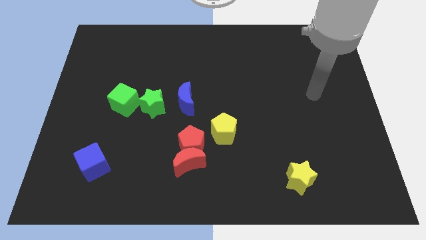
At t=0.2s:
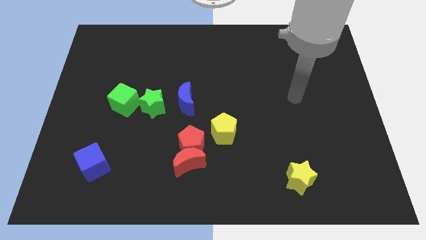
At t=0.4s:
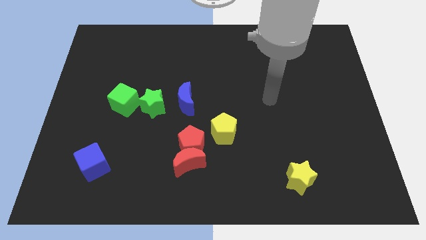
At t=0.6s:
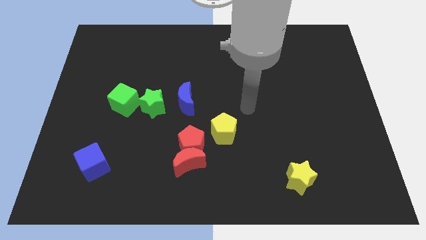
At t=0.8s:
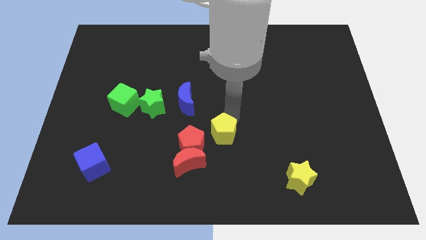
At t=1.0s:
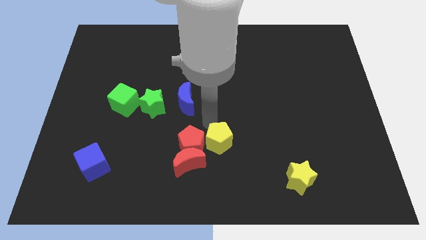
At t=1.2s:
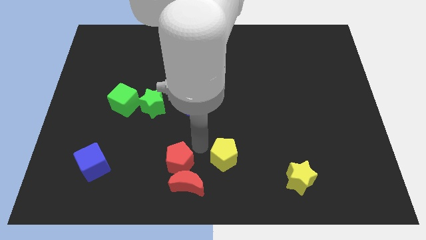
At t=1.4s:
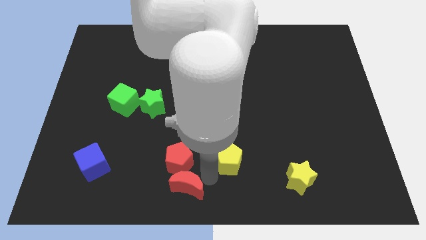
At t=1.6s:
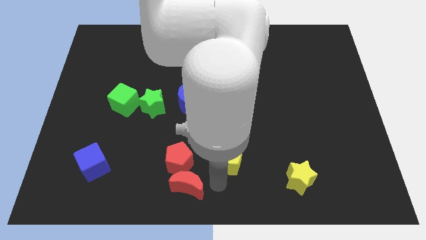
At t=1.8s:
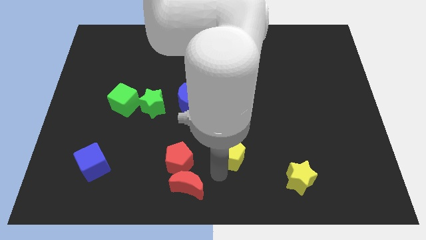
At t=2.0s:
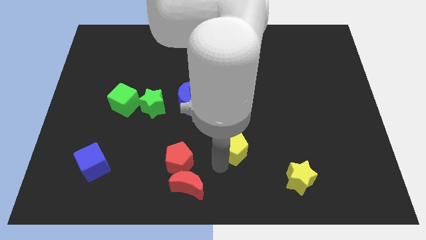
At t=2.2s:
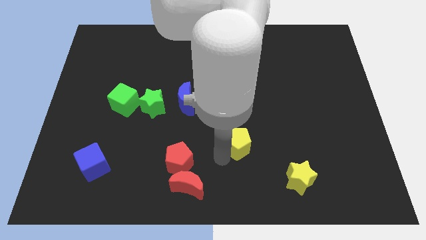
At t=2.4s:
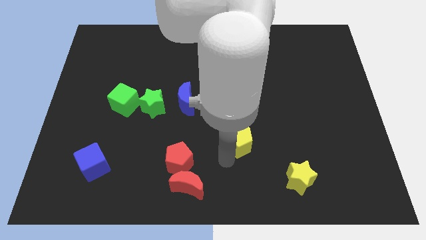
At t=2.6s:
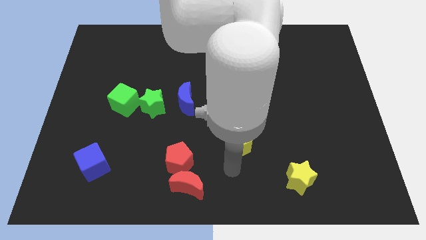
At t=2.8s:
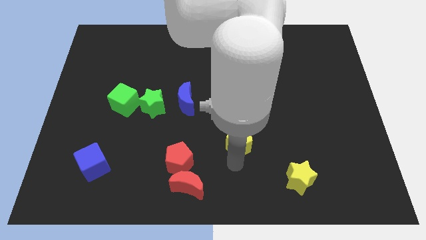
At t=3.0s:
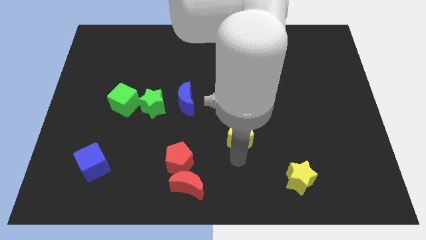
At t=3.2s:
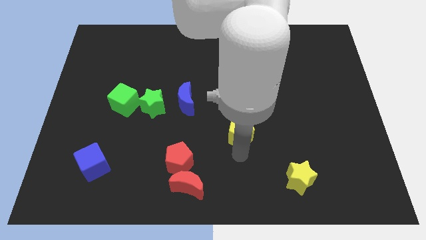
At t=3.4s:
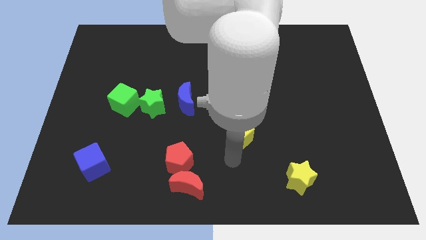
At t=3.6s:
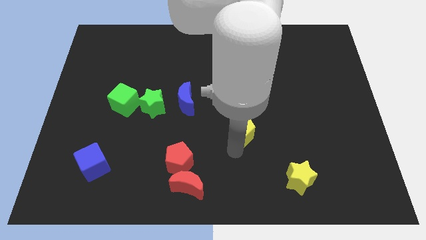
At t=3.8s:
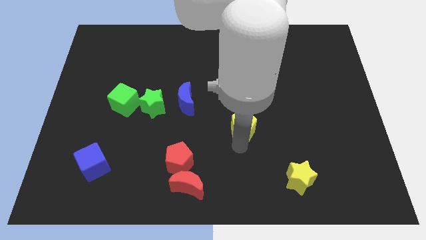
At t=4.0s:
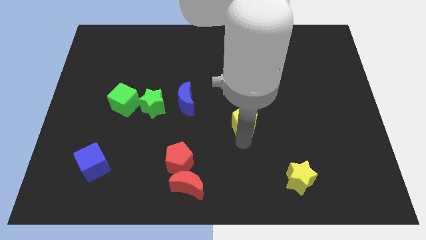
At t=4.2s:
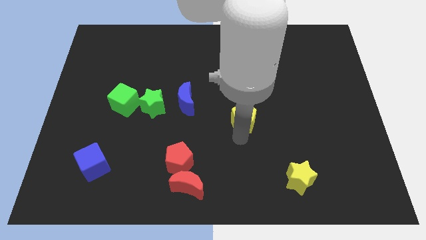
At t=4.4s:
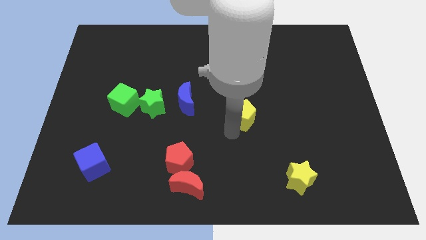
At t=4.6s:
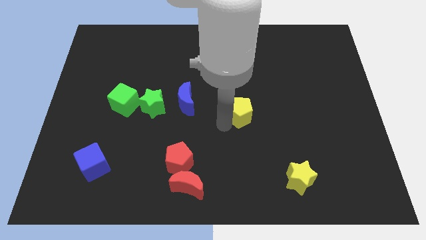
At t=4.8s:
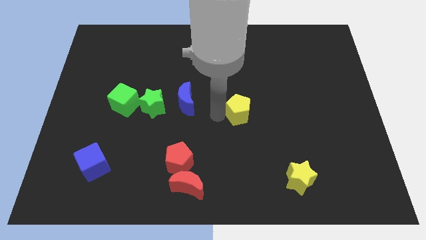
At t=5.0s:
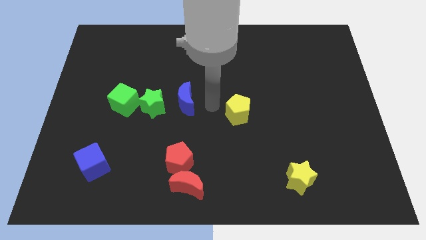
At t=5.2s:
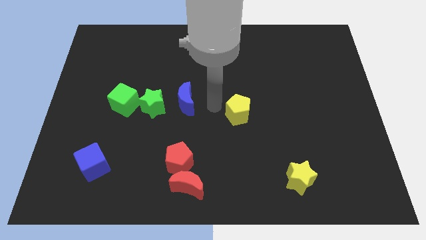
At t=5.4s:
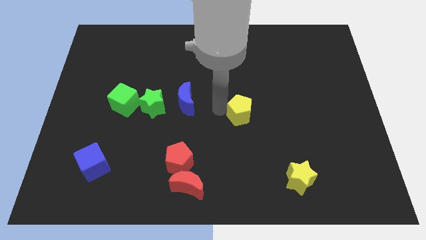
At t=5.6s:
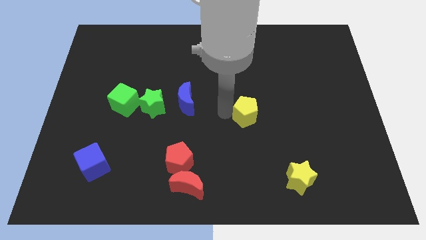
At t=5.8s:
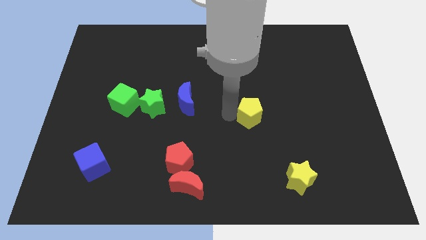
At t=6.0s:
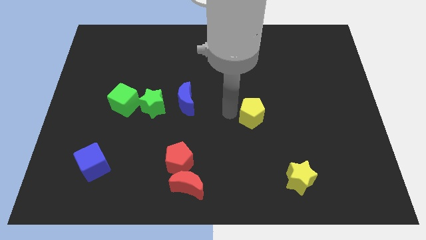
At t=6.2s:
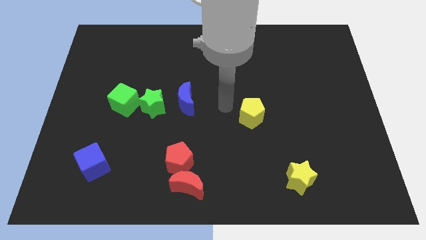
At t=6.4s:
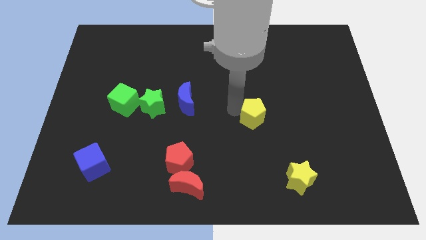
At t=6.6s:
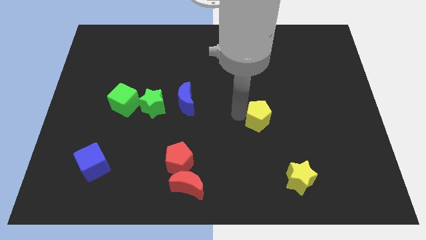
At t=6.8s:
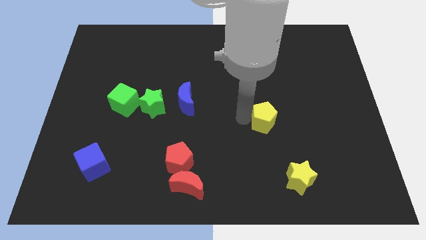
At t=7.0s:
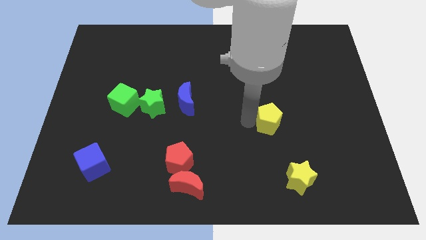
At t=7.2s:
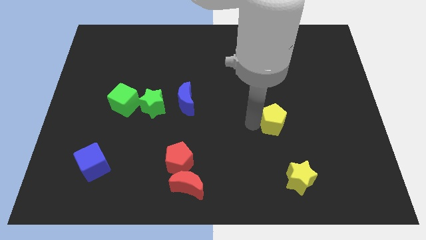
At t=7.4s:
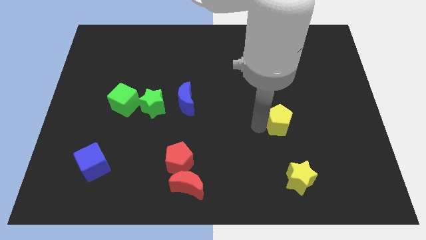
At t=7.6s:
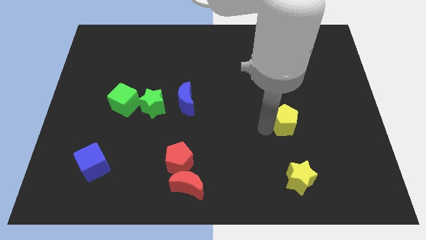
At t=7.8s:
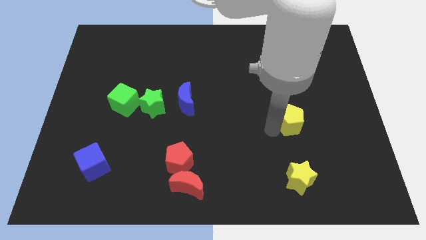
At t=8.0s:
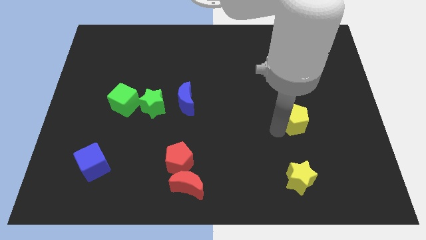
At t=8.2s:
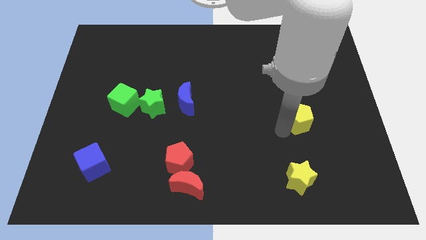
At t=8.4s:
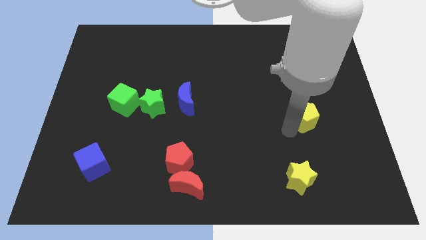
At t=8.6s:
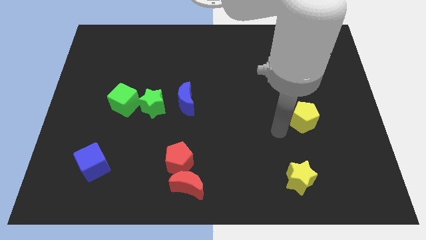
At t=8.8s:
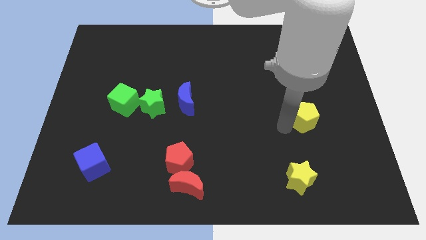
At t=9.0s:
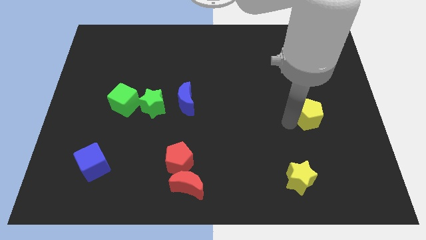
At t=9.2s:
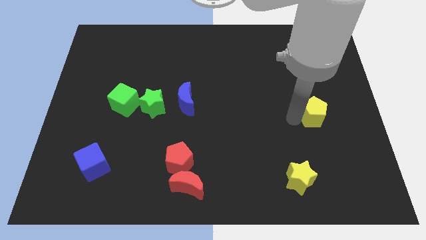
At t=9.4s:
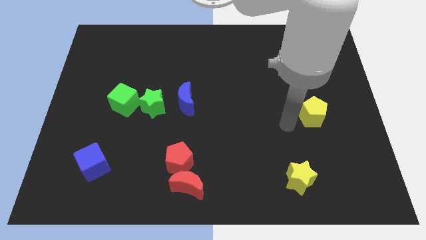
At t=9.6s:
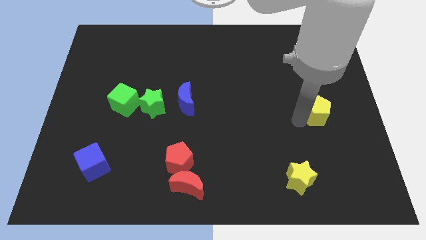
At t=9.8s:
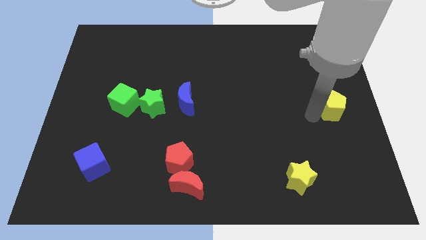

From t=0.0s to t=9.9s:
move the yellow pentagon to the right side

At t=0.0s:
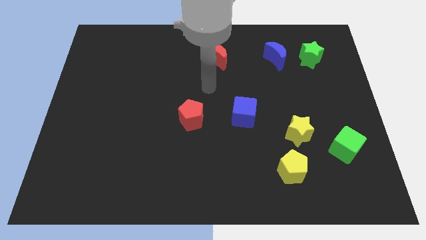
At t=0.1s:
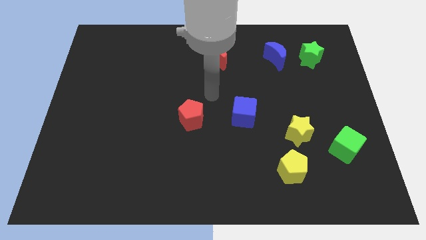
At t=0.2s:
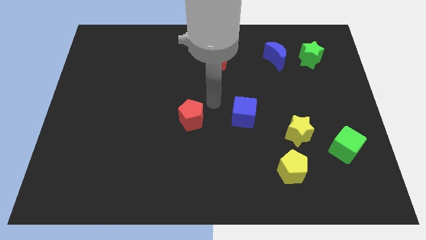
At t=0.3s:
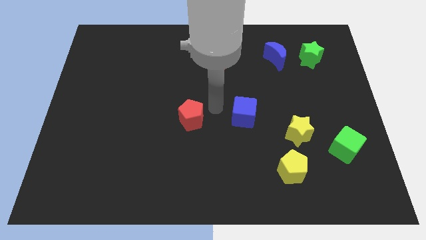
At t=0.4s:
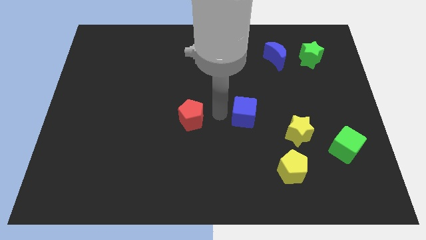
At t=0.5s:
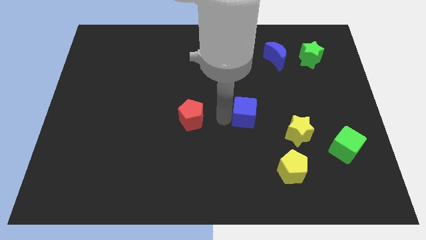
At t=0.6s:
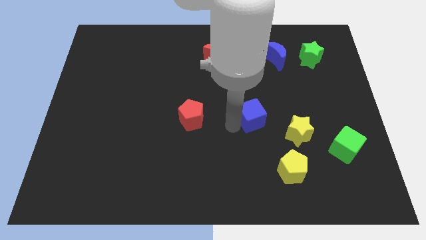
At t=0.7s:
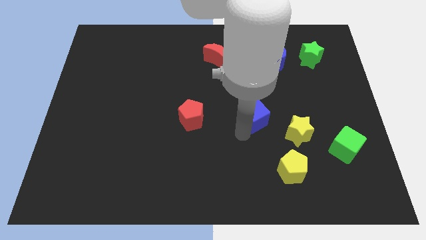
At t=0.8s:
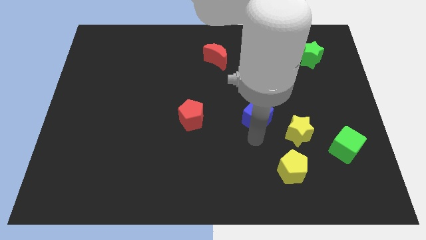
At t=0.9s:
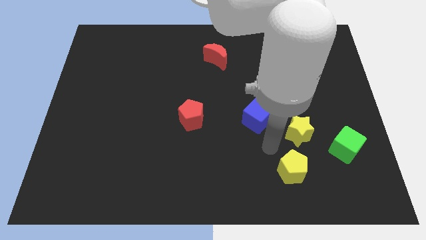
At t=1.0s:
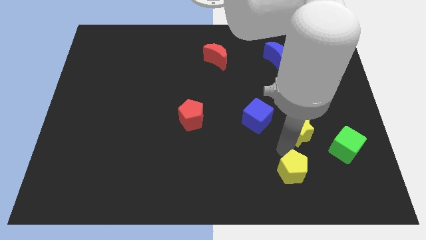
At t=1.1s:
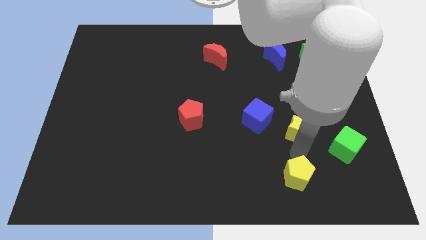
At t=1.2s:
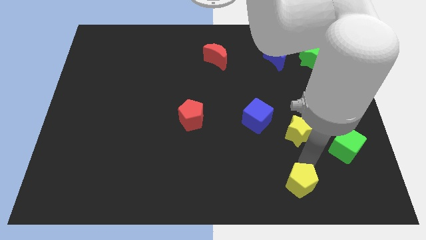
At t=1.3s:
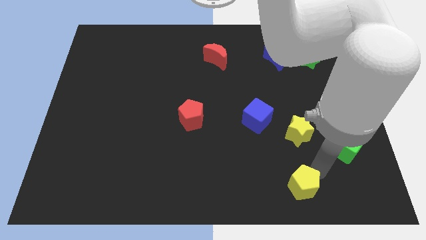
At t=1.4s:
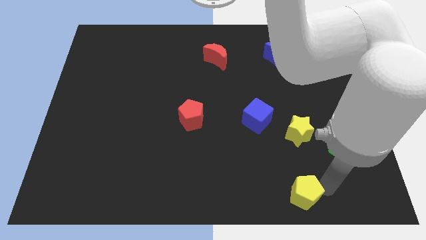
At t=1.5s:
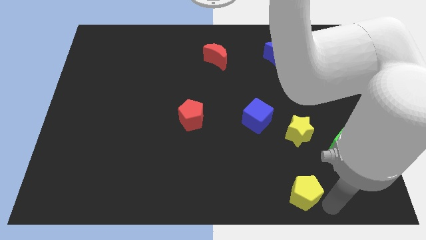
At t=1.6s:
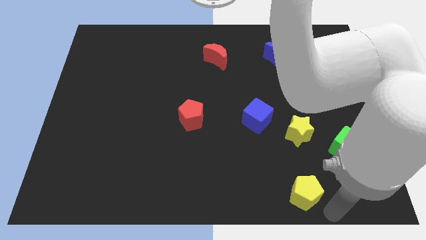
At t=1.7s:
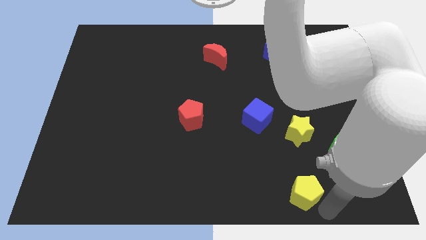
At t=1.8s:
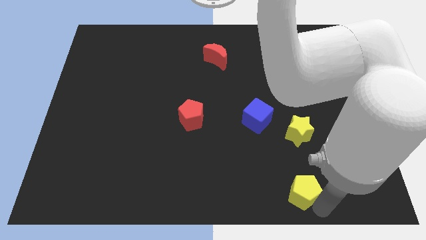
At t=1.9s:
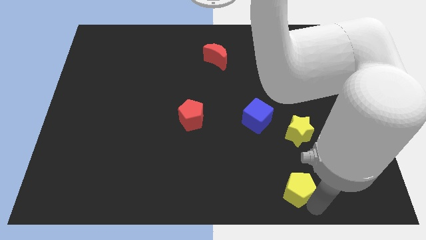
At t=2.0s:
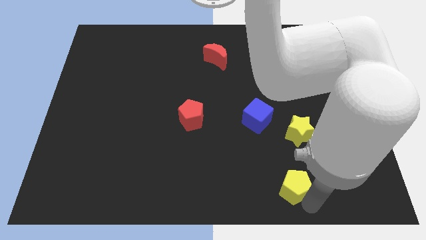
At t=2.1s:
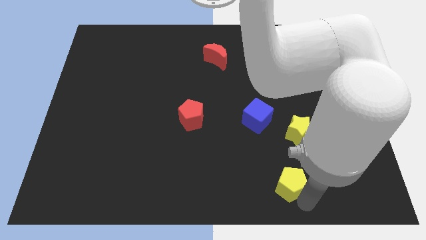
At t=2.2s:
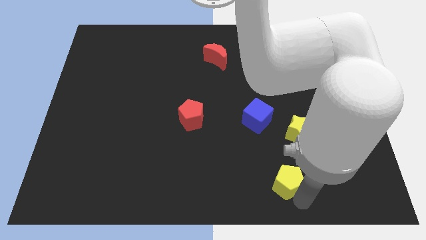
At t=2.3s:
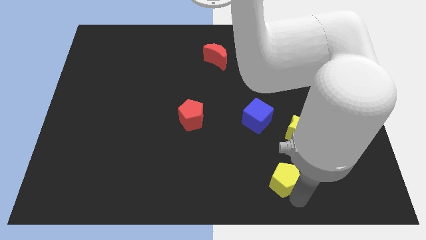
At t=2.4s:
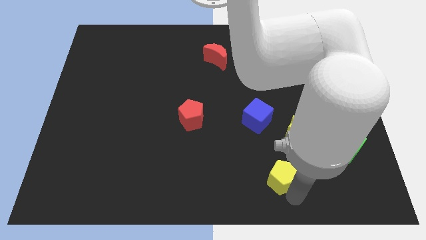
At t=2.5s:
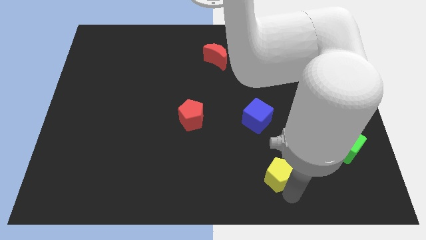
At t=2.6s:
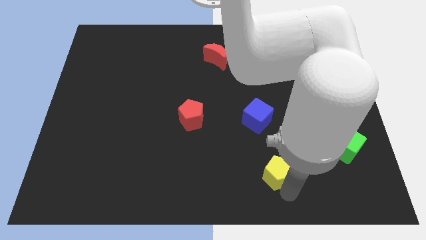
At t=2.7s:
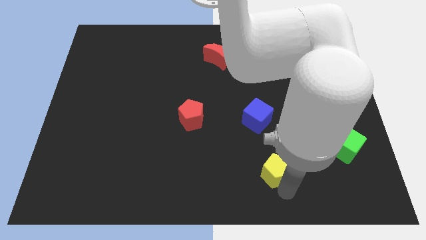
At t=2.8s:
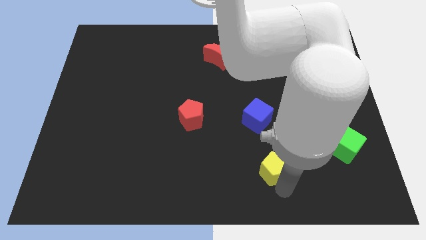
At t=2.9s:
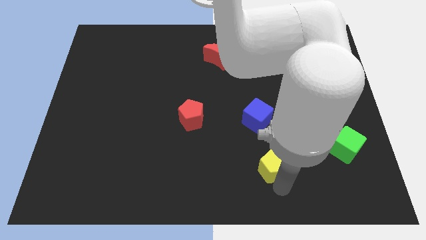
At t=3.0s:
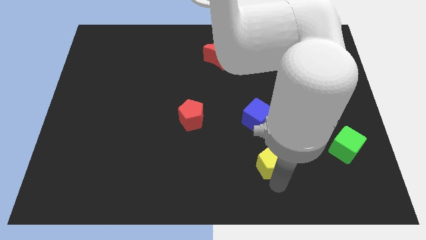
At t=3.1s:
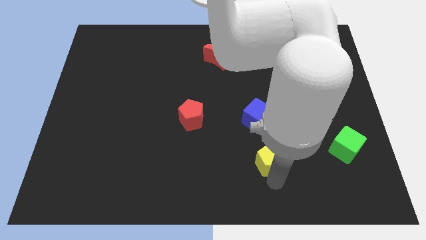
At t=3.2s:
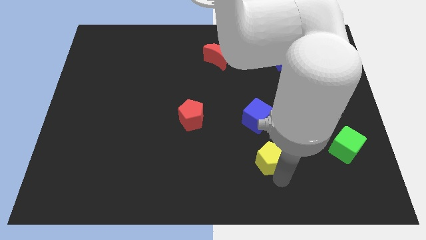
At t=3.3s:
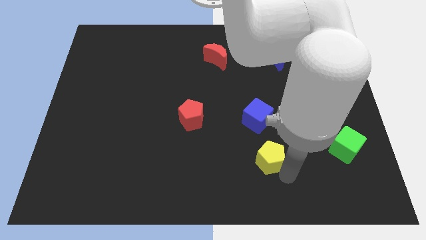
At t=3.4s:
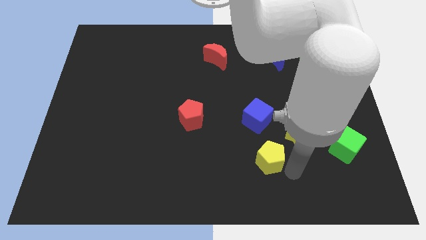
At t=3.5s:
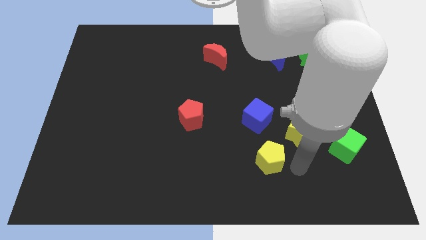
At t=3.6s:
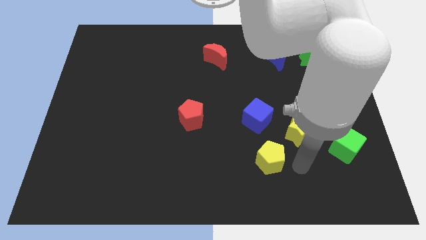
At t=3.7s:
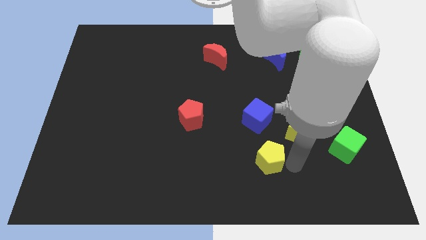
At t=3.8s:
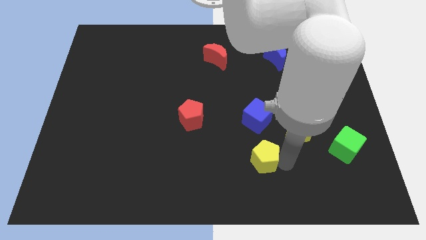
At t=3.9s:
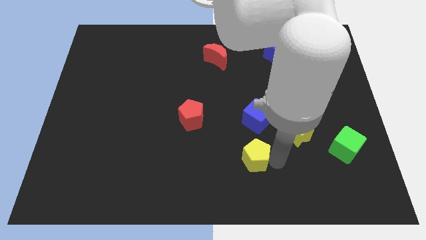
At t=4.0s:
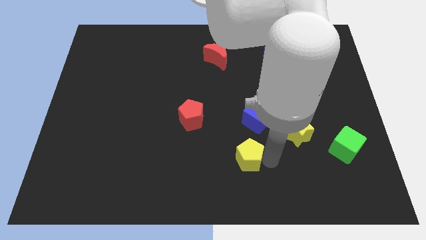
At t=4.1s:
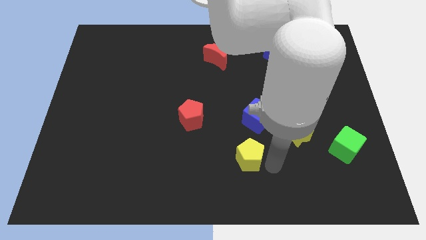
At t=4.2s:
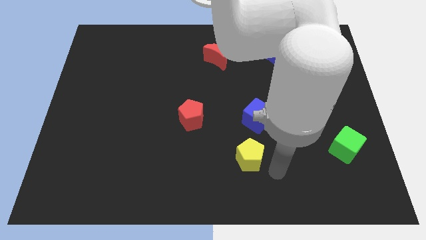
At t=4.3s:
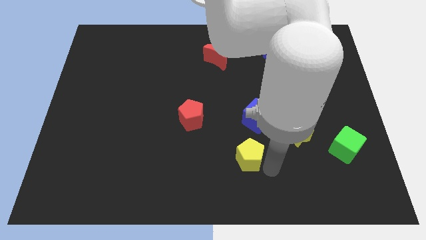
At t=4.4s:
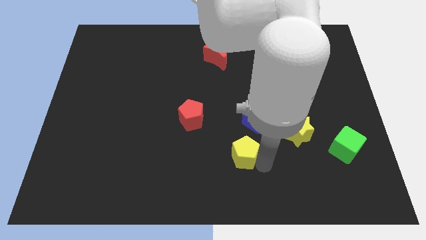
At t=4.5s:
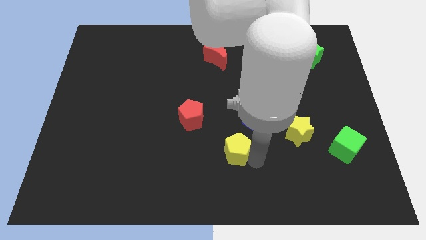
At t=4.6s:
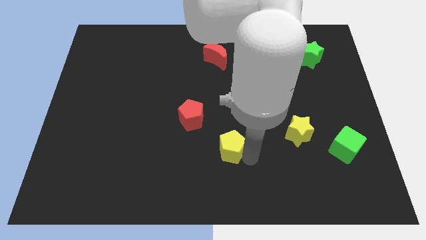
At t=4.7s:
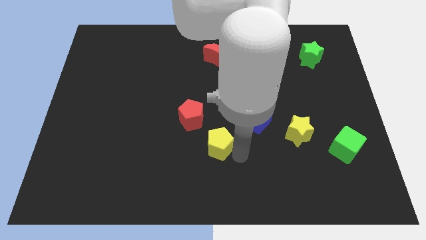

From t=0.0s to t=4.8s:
slide the yellow pentagon to the center of the board
